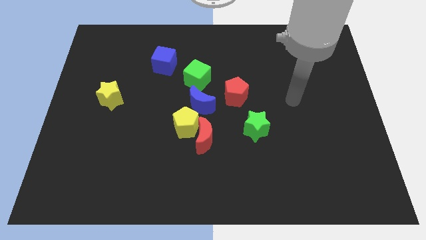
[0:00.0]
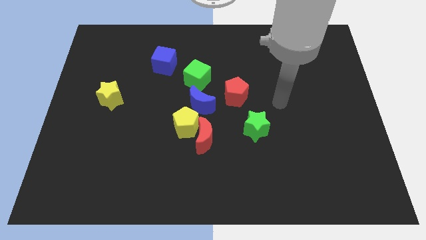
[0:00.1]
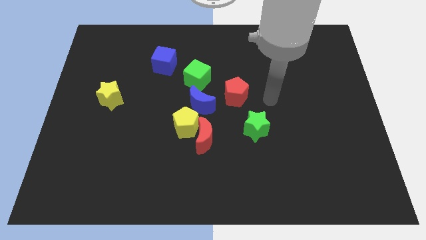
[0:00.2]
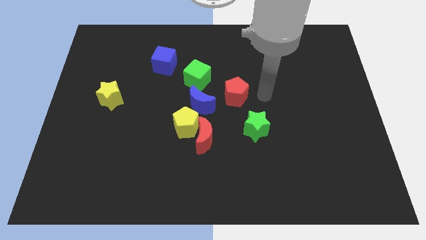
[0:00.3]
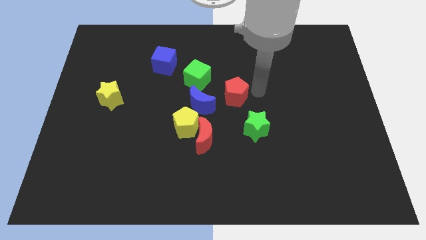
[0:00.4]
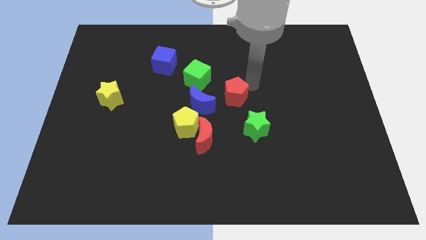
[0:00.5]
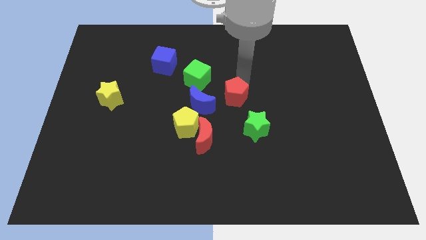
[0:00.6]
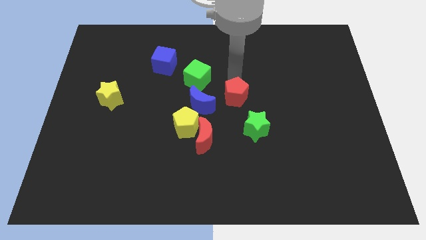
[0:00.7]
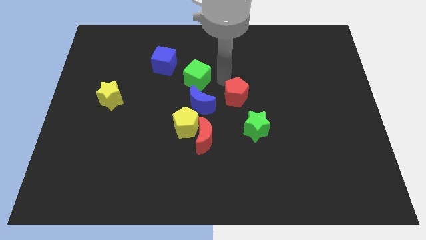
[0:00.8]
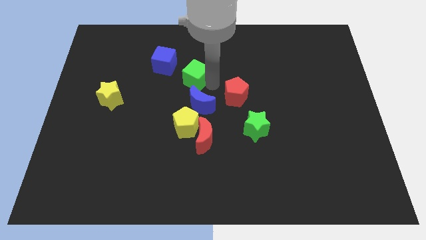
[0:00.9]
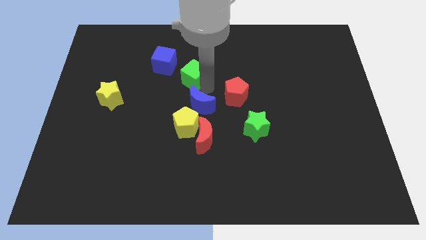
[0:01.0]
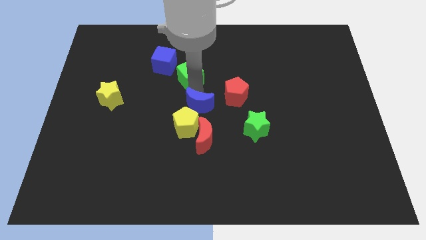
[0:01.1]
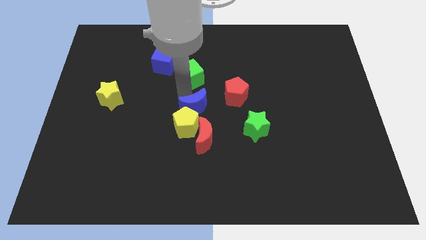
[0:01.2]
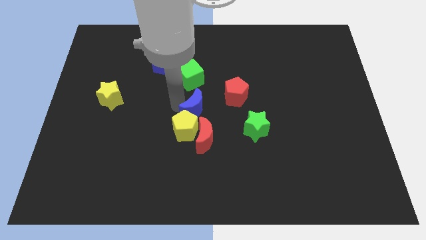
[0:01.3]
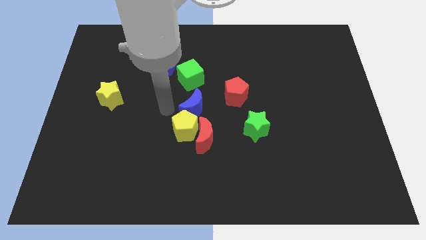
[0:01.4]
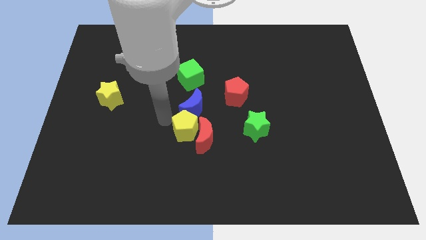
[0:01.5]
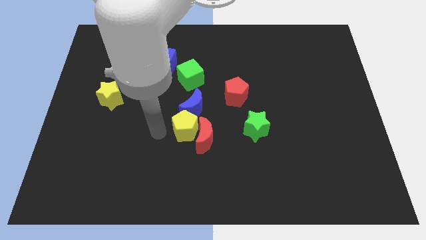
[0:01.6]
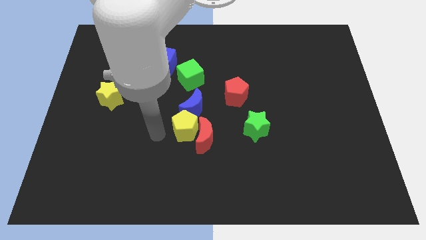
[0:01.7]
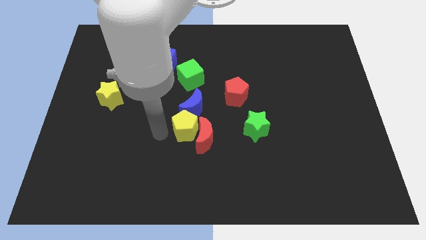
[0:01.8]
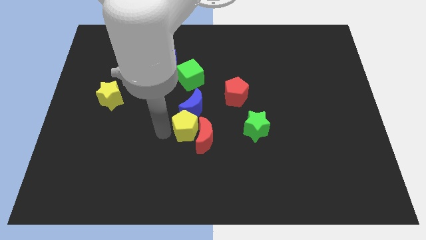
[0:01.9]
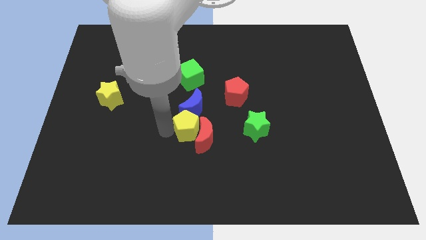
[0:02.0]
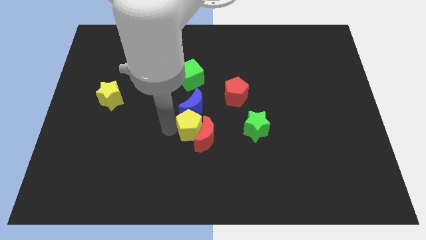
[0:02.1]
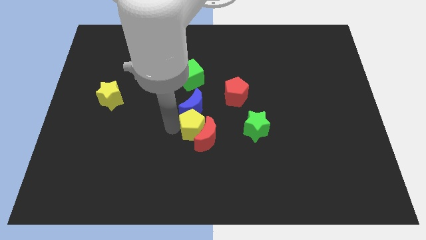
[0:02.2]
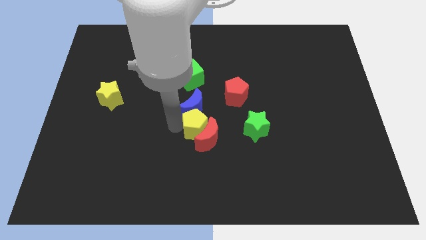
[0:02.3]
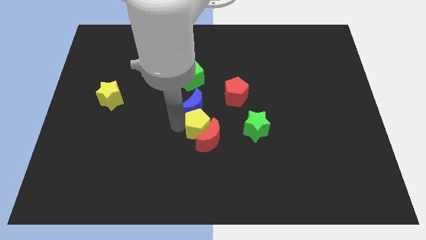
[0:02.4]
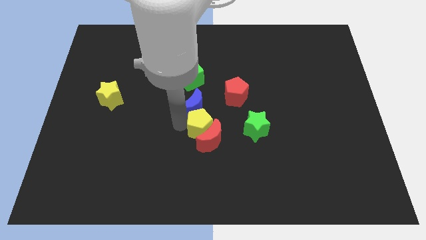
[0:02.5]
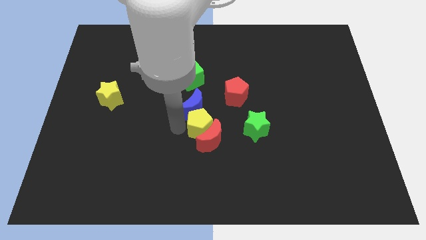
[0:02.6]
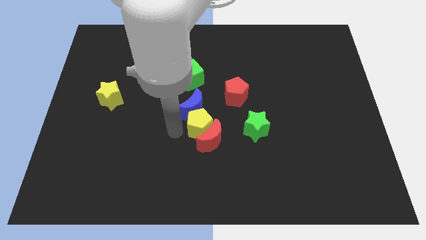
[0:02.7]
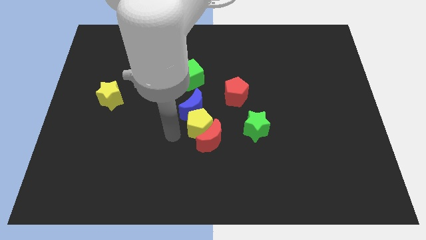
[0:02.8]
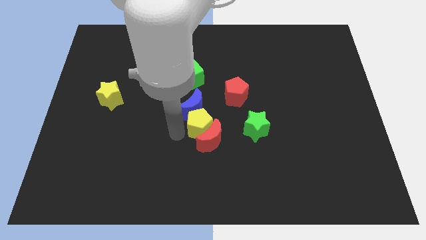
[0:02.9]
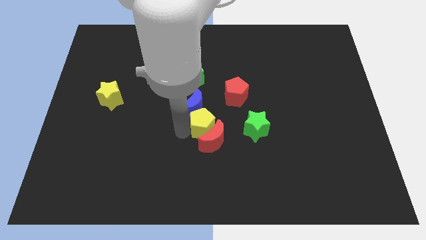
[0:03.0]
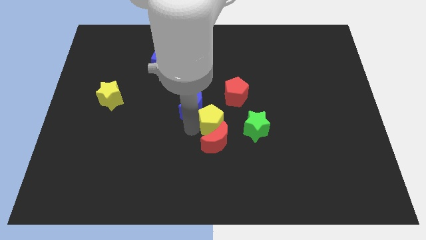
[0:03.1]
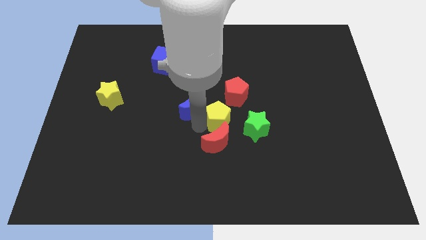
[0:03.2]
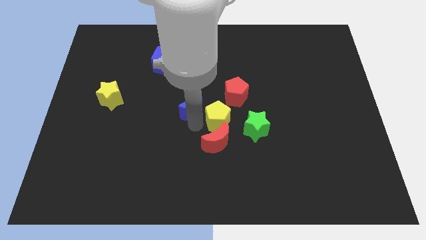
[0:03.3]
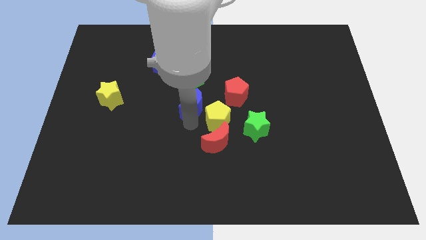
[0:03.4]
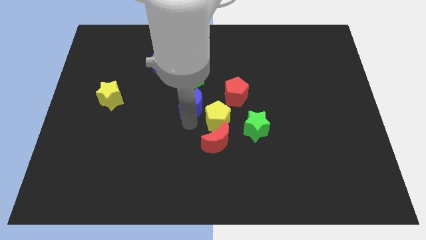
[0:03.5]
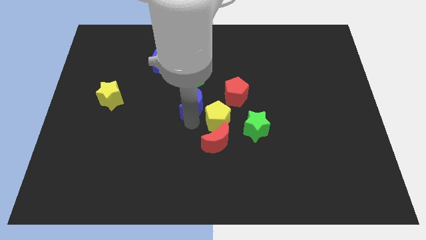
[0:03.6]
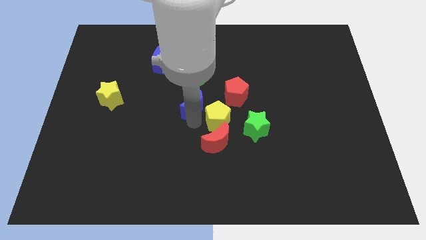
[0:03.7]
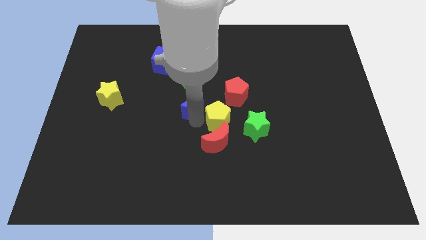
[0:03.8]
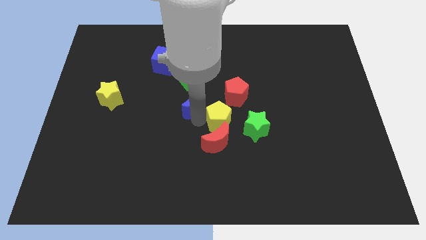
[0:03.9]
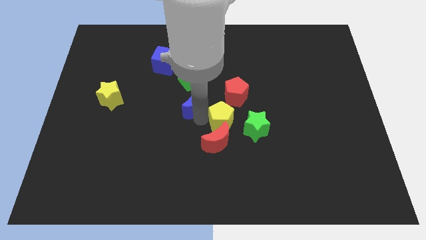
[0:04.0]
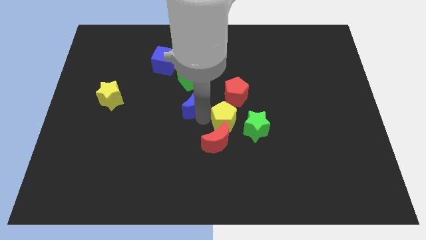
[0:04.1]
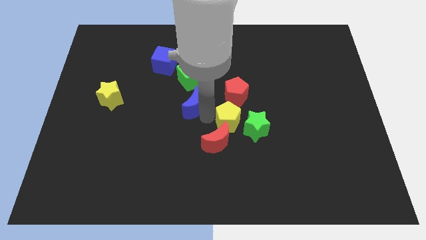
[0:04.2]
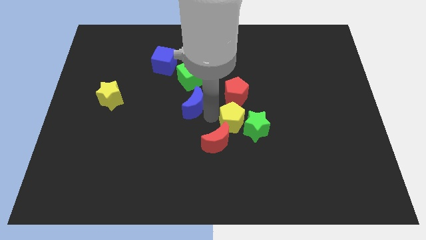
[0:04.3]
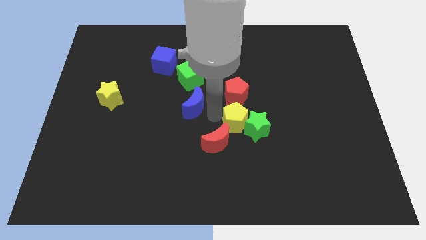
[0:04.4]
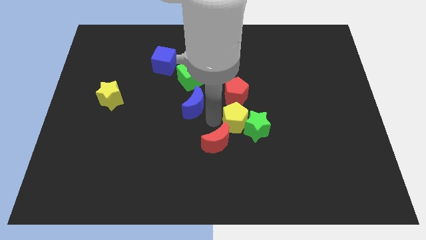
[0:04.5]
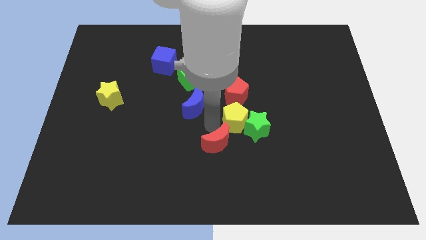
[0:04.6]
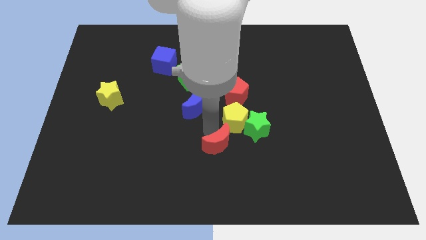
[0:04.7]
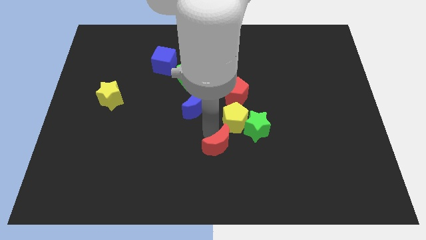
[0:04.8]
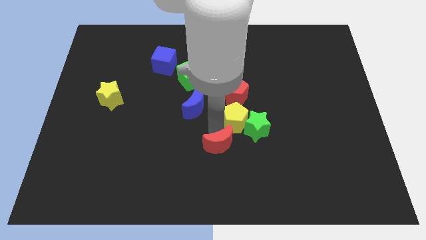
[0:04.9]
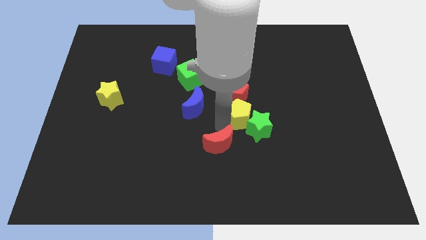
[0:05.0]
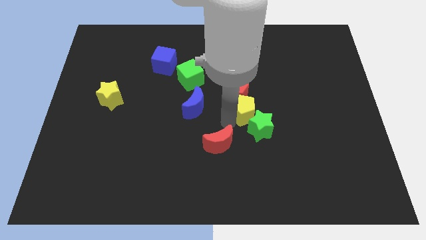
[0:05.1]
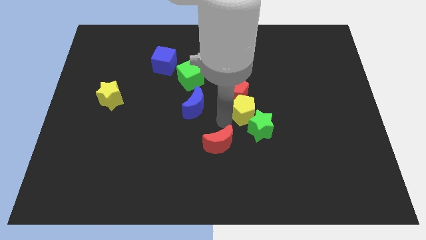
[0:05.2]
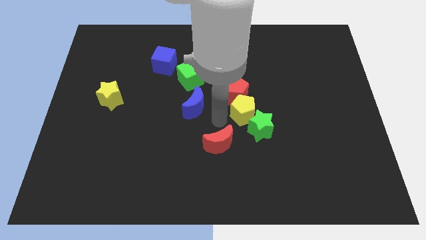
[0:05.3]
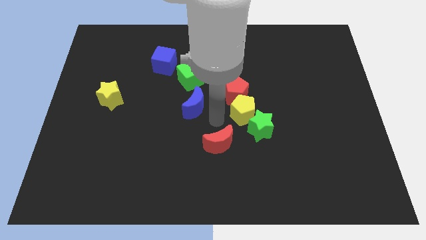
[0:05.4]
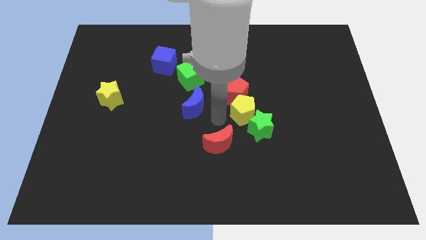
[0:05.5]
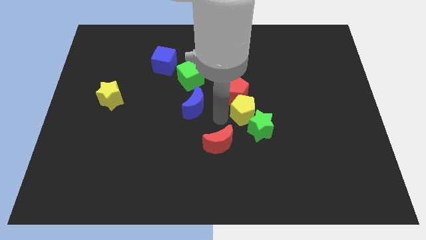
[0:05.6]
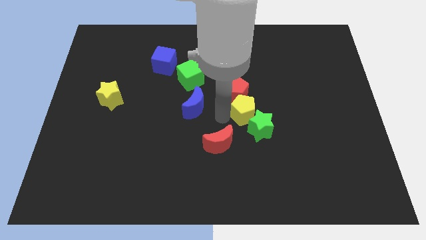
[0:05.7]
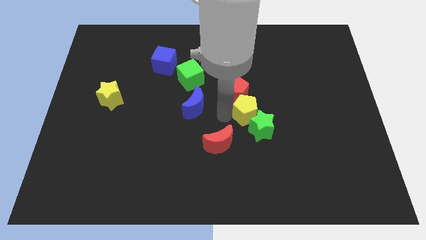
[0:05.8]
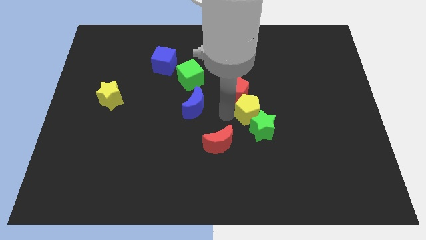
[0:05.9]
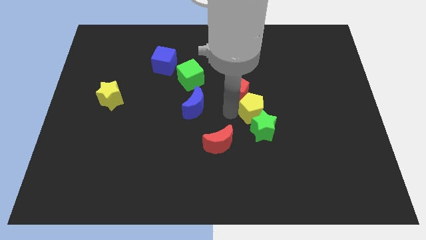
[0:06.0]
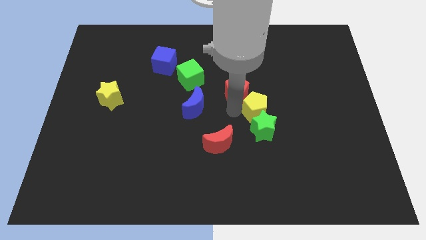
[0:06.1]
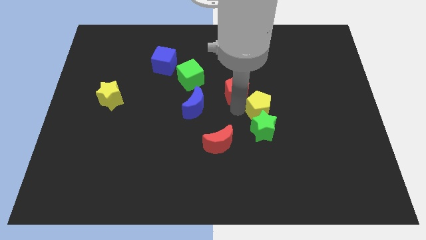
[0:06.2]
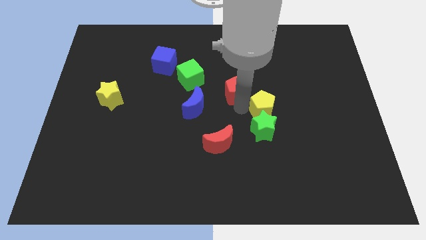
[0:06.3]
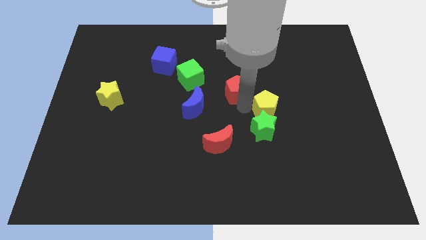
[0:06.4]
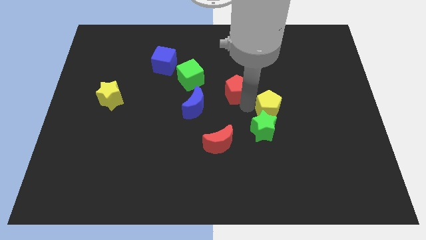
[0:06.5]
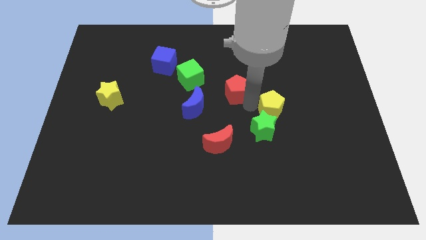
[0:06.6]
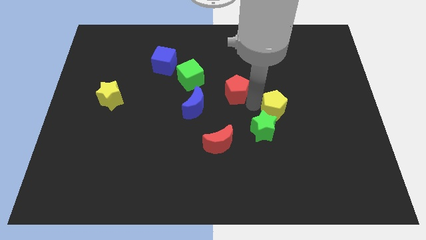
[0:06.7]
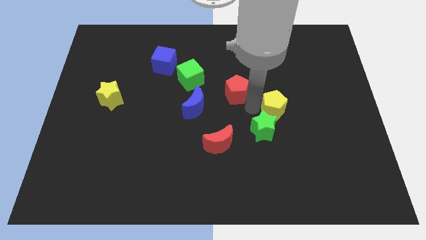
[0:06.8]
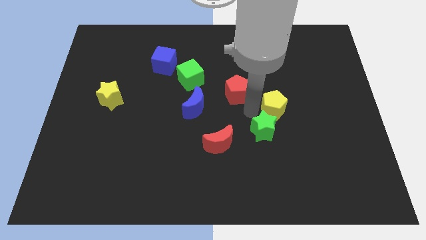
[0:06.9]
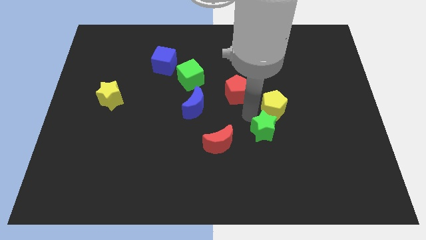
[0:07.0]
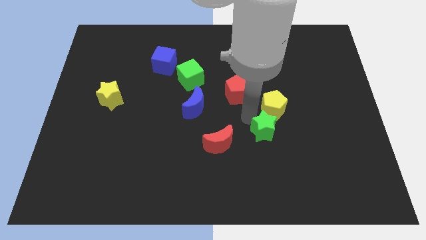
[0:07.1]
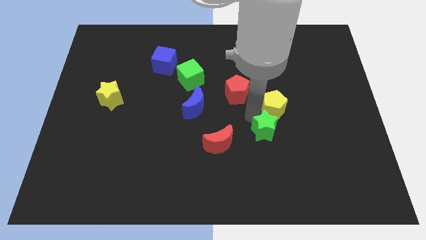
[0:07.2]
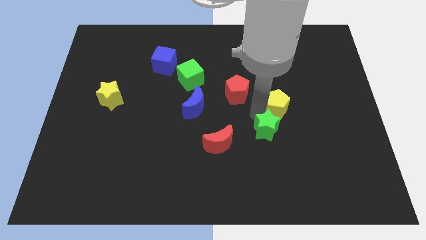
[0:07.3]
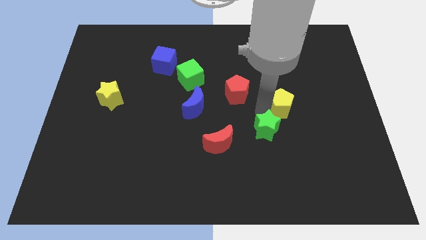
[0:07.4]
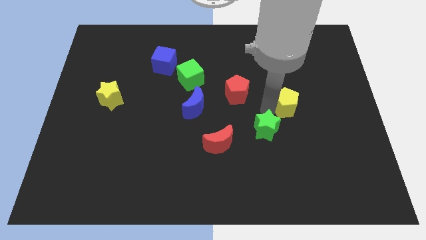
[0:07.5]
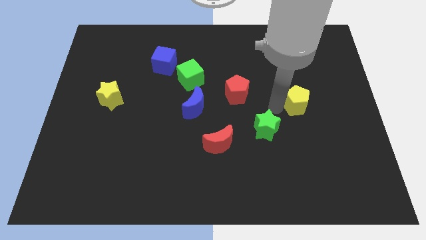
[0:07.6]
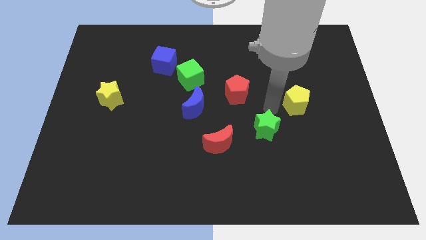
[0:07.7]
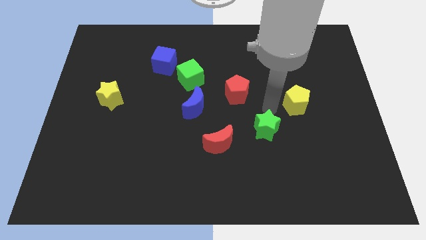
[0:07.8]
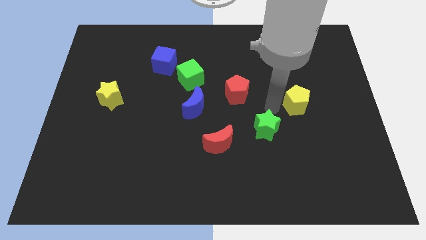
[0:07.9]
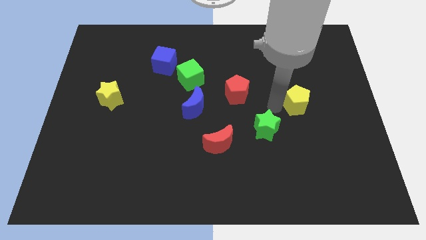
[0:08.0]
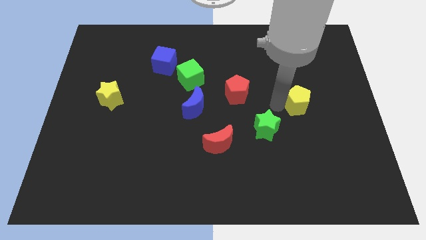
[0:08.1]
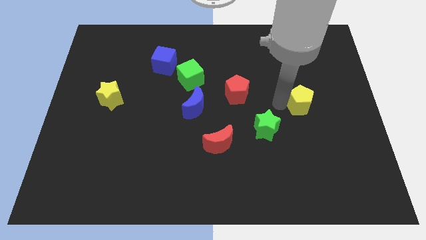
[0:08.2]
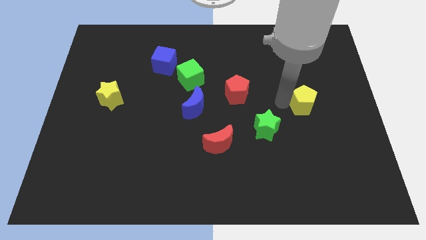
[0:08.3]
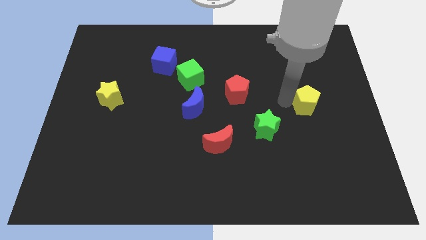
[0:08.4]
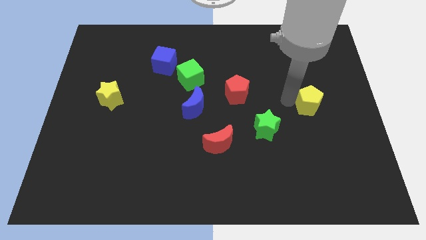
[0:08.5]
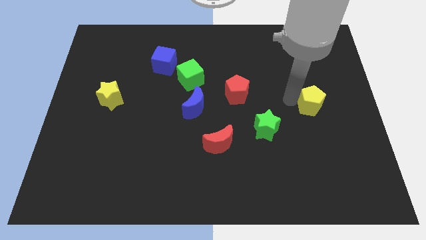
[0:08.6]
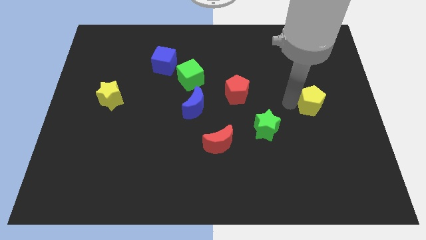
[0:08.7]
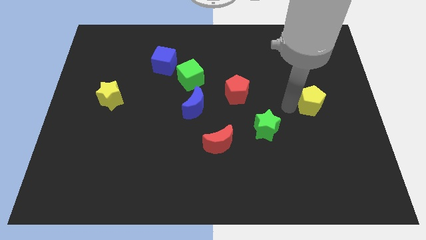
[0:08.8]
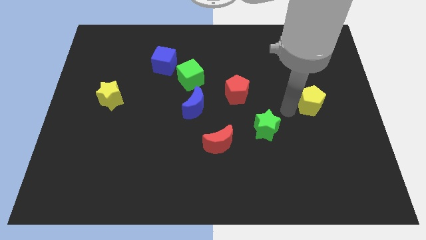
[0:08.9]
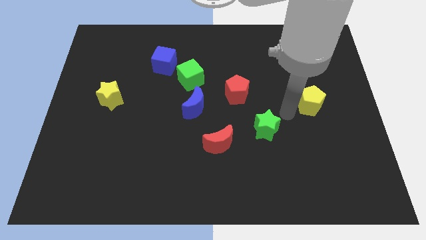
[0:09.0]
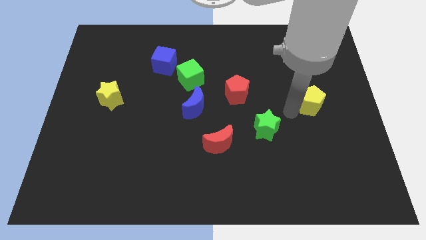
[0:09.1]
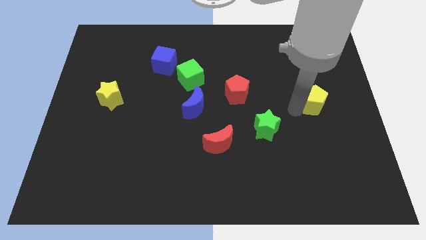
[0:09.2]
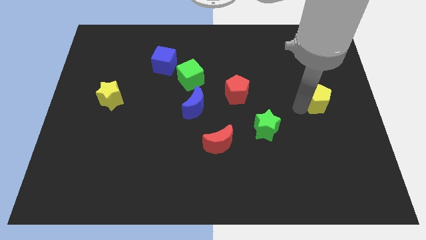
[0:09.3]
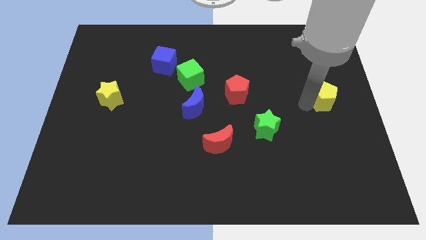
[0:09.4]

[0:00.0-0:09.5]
push the yellow pentagon to the right side
